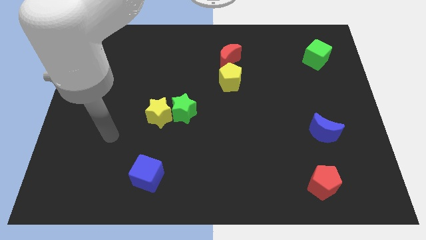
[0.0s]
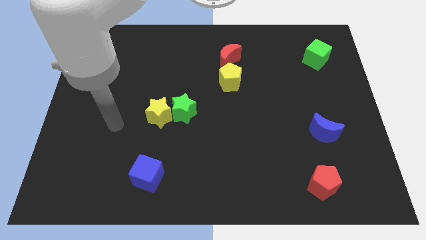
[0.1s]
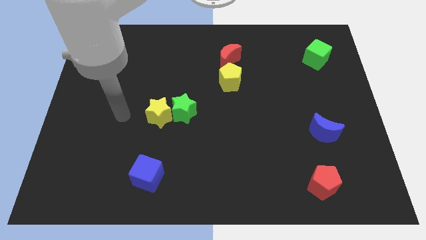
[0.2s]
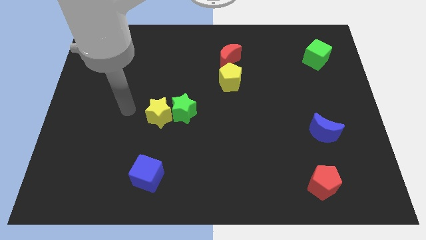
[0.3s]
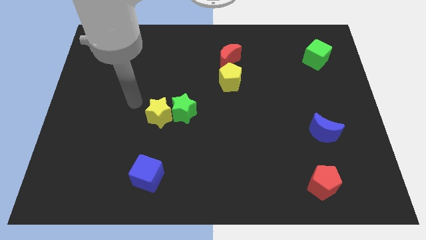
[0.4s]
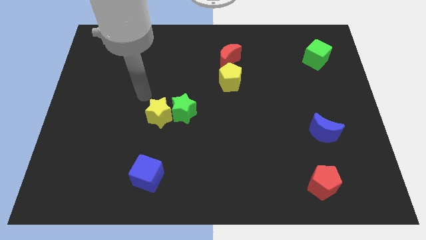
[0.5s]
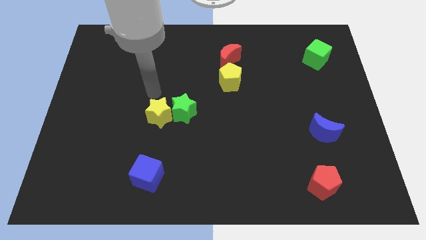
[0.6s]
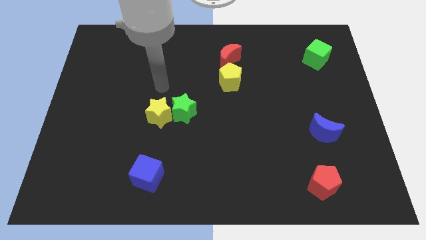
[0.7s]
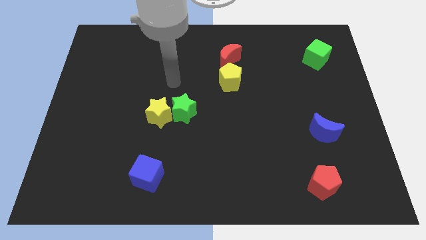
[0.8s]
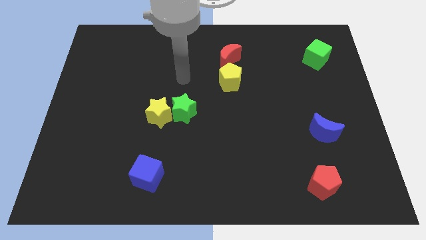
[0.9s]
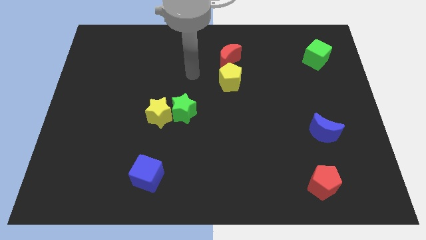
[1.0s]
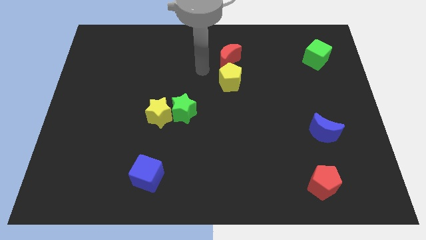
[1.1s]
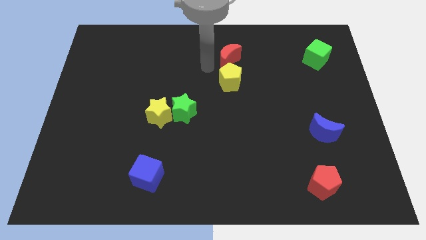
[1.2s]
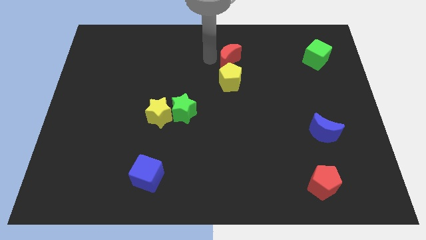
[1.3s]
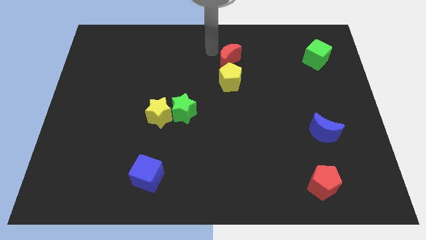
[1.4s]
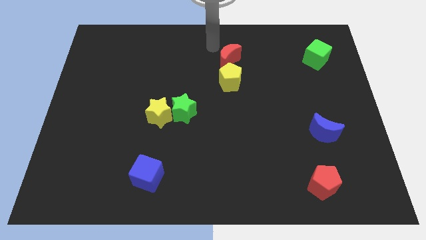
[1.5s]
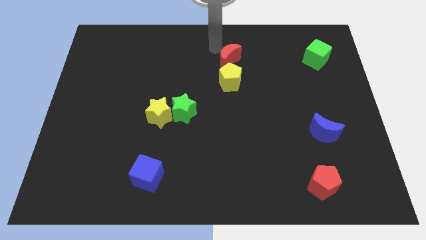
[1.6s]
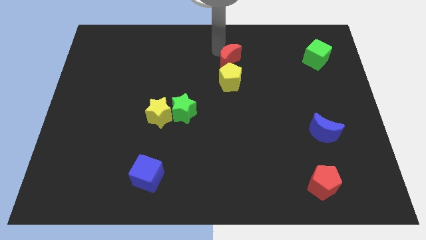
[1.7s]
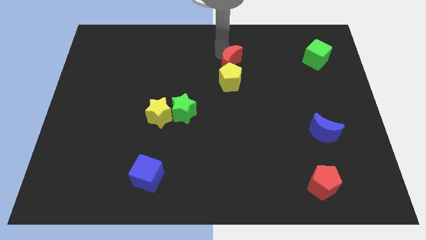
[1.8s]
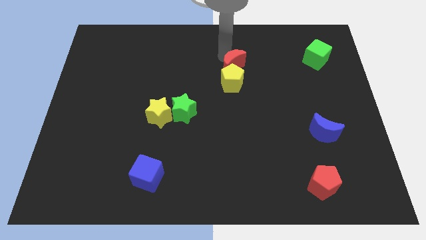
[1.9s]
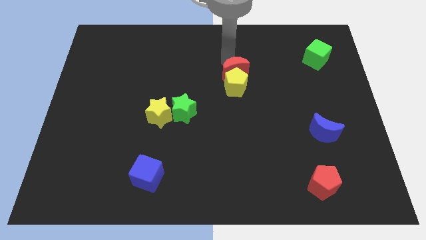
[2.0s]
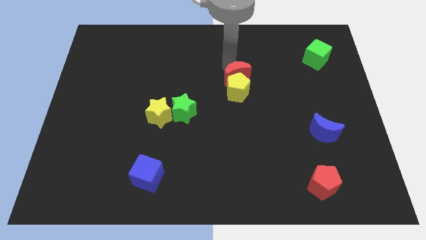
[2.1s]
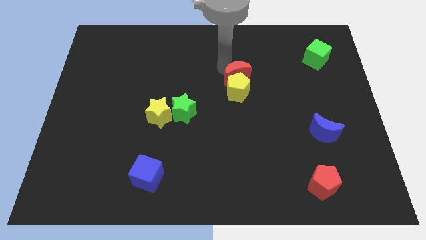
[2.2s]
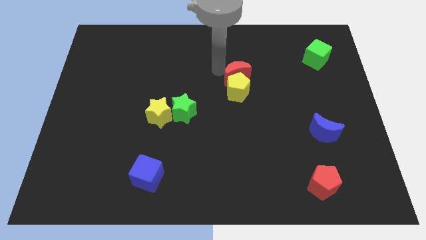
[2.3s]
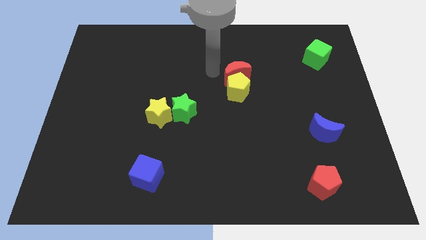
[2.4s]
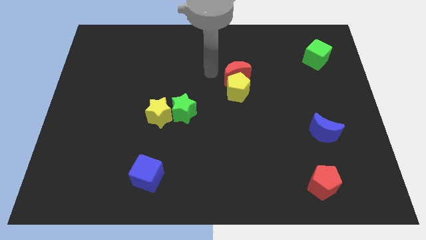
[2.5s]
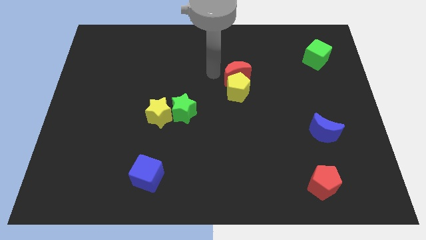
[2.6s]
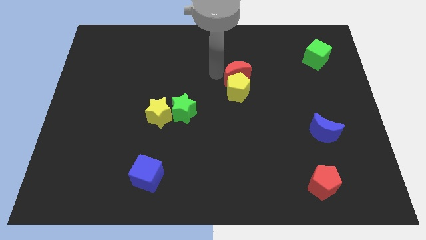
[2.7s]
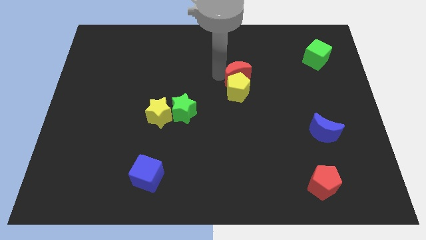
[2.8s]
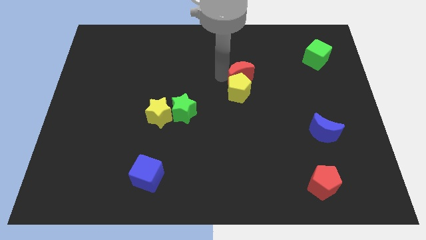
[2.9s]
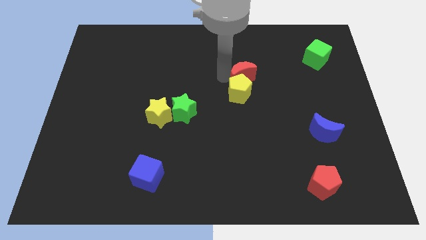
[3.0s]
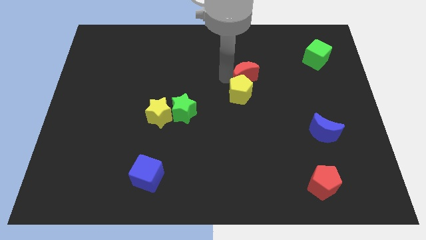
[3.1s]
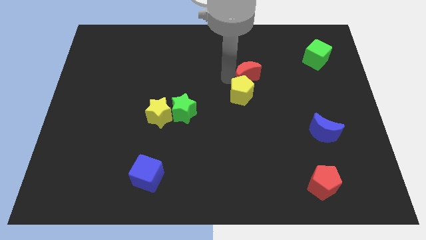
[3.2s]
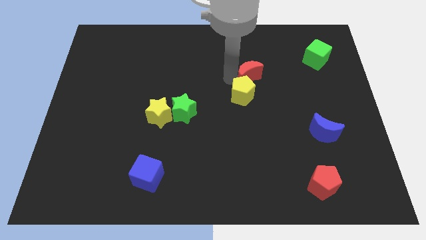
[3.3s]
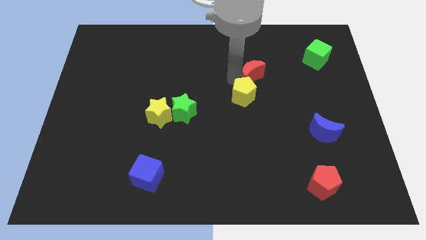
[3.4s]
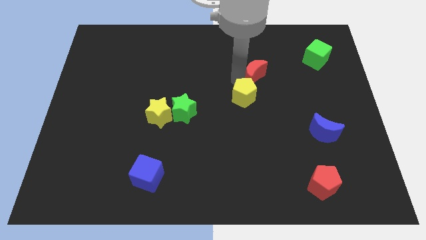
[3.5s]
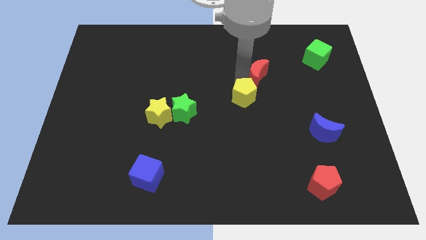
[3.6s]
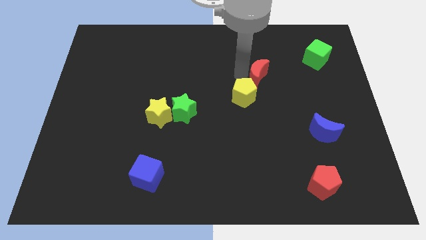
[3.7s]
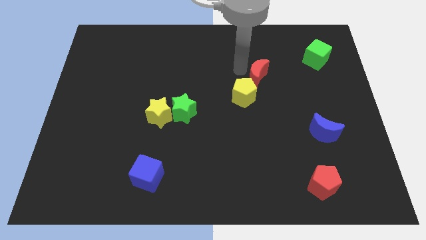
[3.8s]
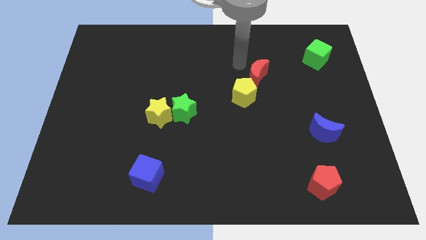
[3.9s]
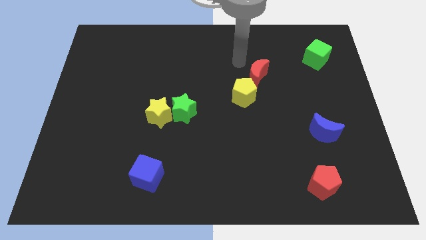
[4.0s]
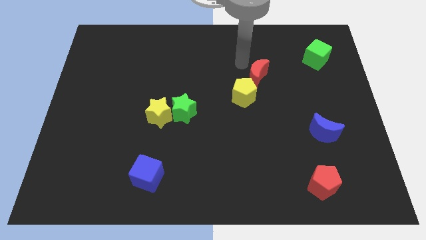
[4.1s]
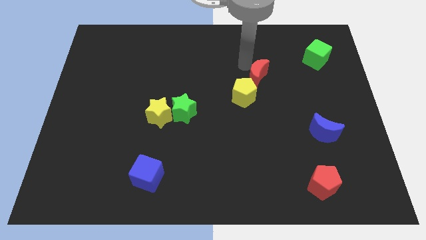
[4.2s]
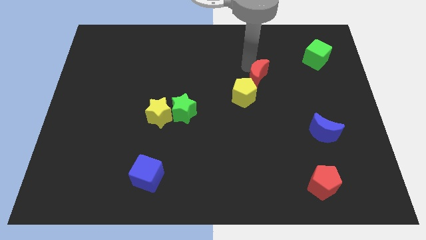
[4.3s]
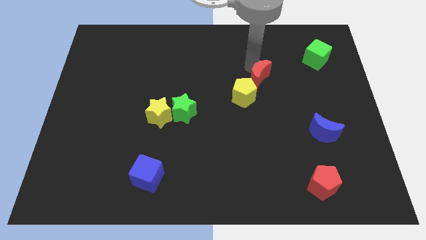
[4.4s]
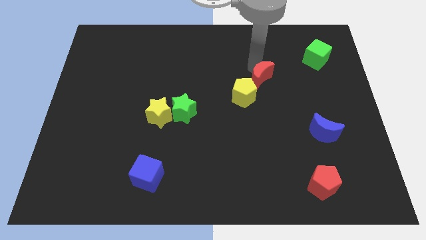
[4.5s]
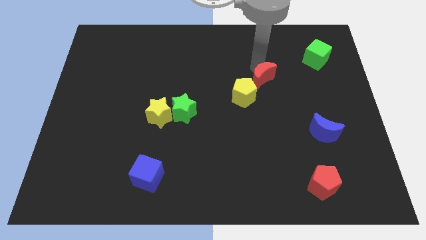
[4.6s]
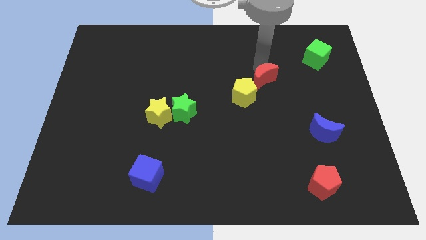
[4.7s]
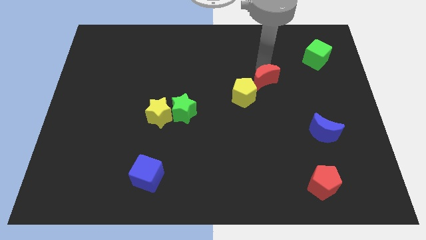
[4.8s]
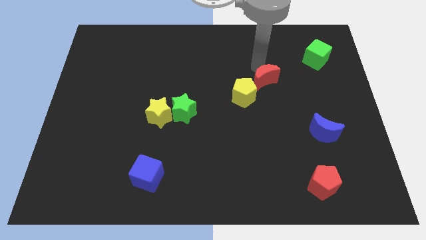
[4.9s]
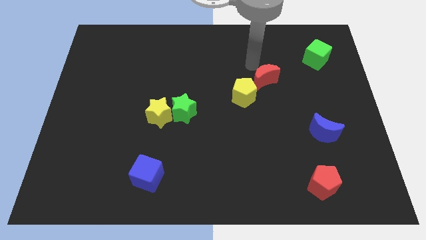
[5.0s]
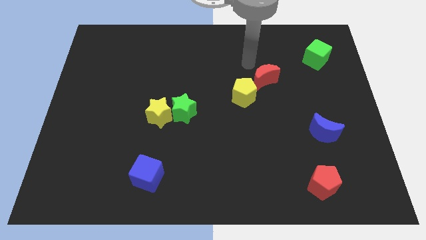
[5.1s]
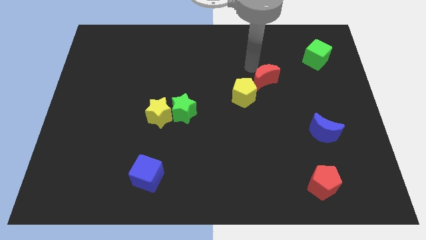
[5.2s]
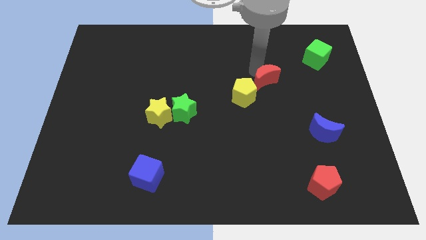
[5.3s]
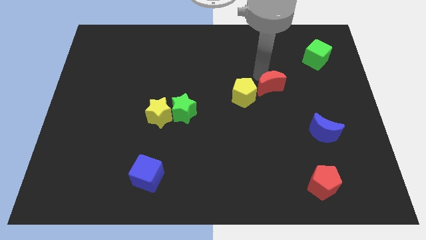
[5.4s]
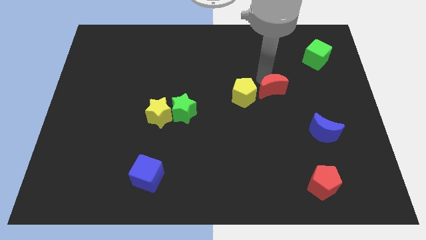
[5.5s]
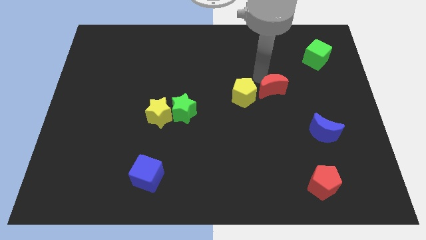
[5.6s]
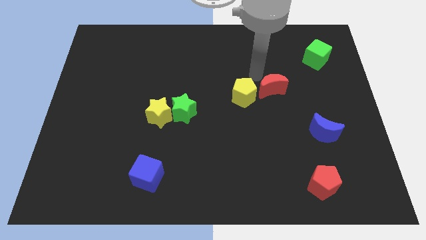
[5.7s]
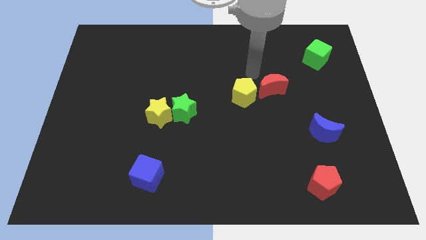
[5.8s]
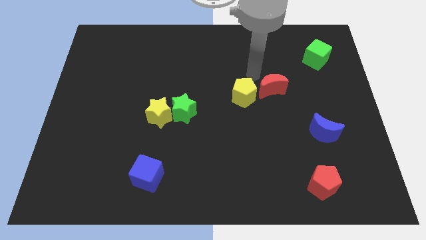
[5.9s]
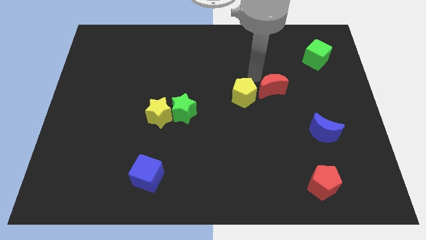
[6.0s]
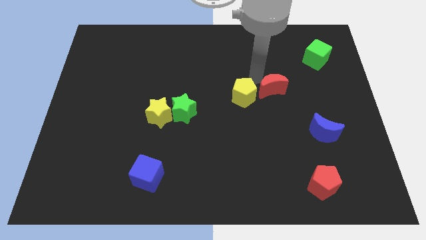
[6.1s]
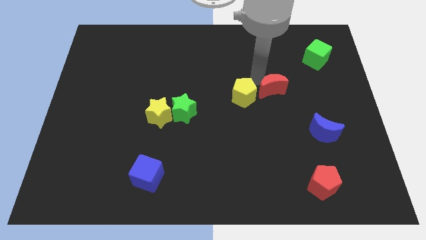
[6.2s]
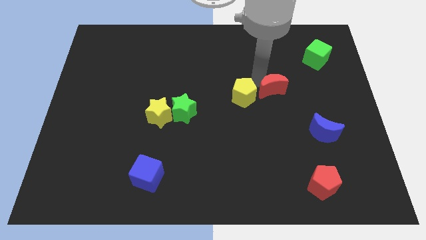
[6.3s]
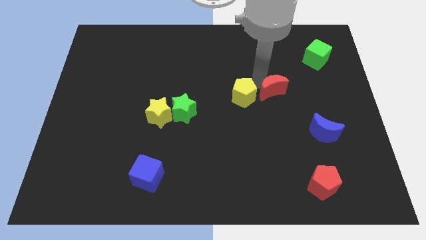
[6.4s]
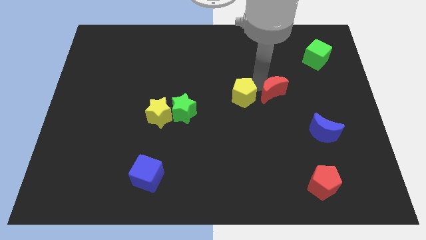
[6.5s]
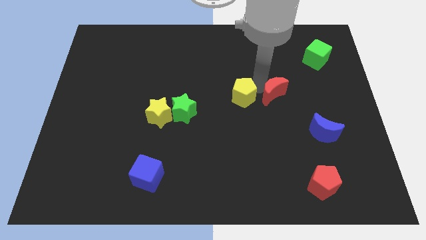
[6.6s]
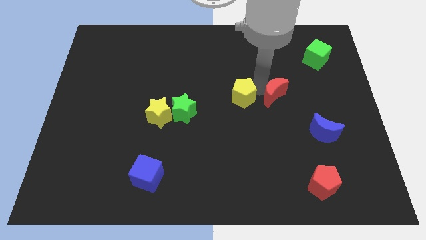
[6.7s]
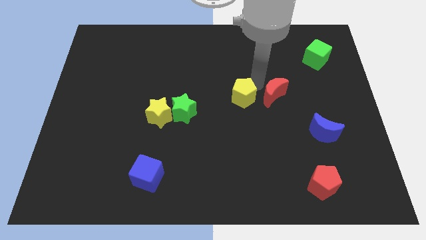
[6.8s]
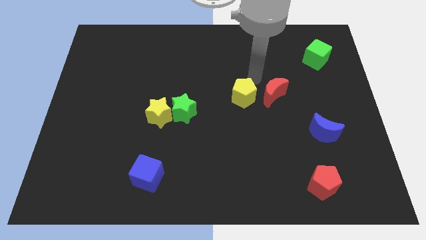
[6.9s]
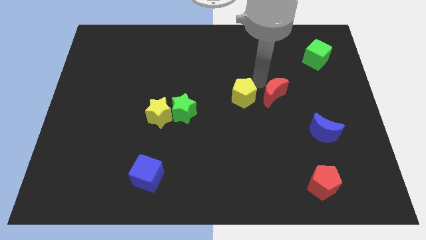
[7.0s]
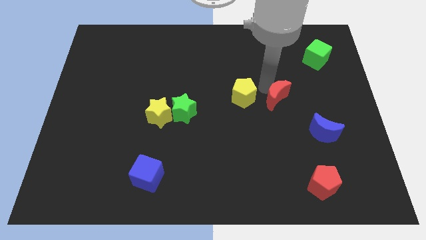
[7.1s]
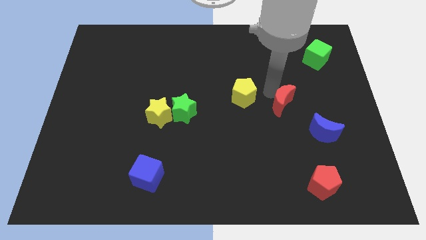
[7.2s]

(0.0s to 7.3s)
put the red moon to the top left side of the blue moon
